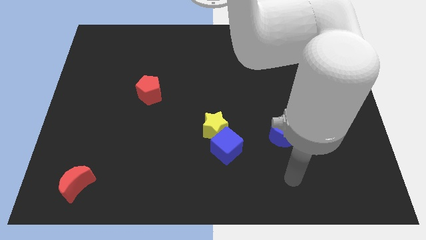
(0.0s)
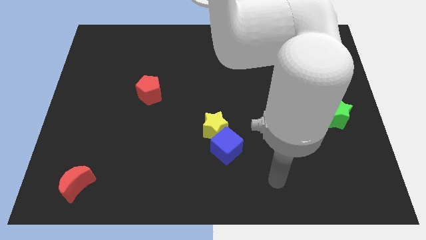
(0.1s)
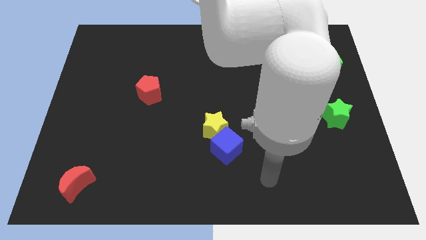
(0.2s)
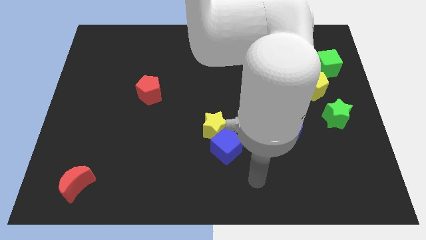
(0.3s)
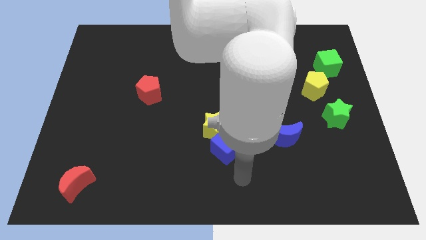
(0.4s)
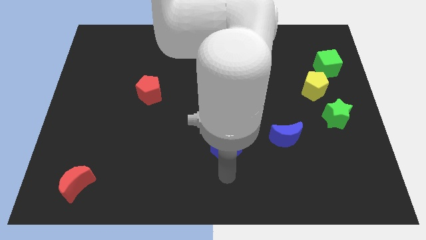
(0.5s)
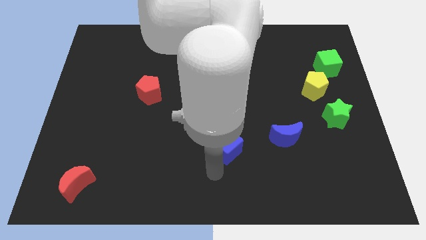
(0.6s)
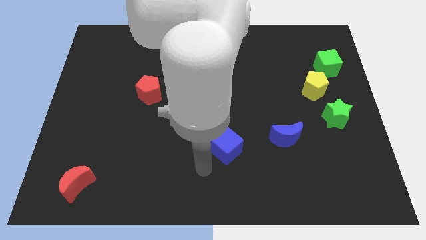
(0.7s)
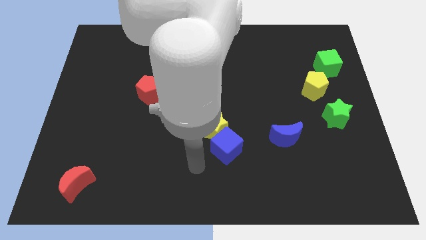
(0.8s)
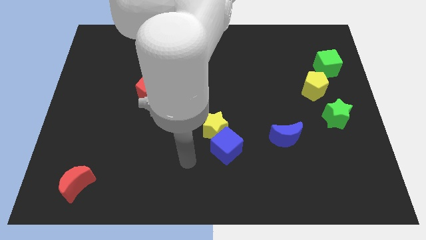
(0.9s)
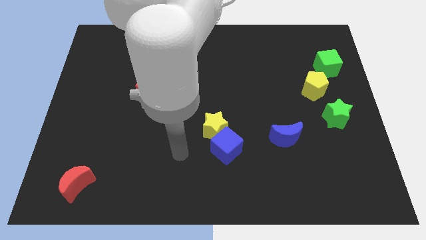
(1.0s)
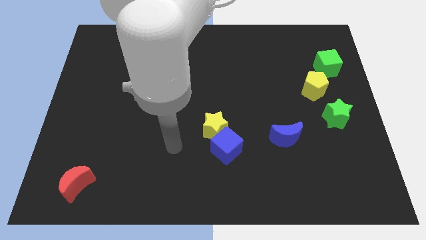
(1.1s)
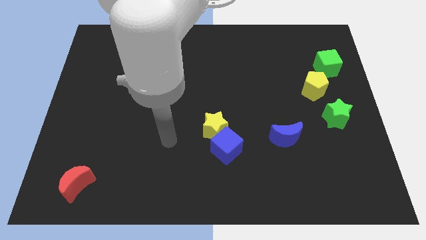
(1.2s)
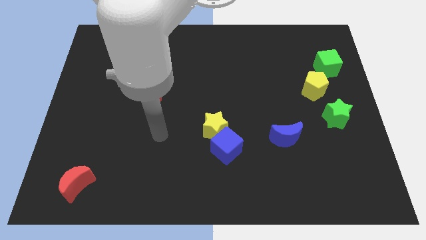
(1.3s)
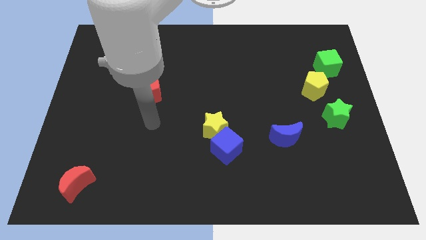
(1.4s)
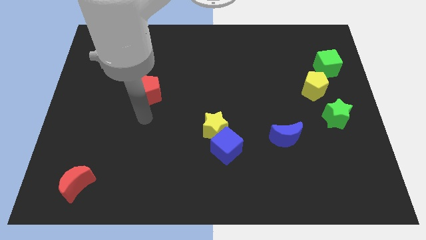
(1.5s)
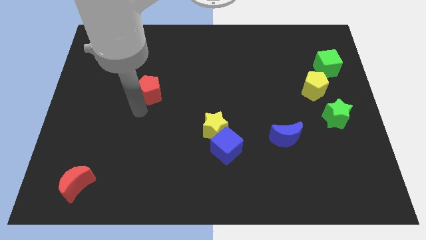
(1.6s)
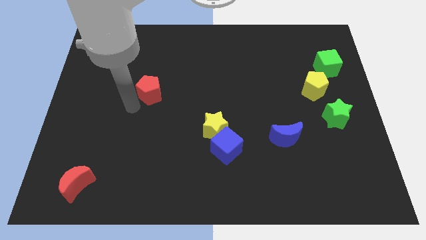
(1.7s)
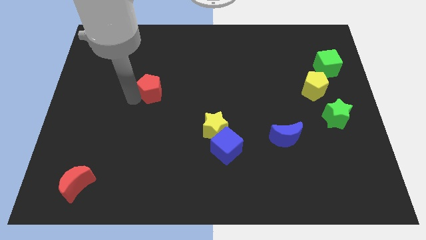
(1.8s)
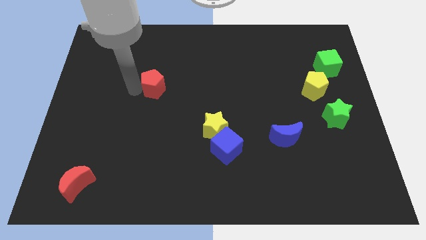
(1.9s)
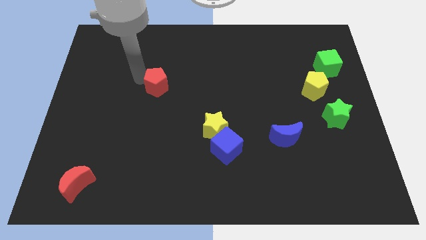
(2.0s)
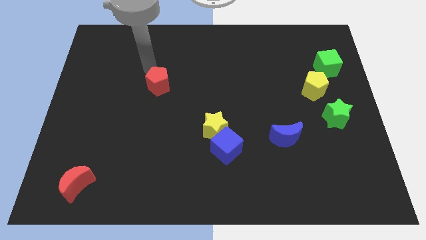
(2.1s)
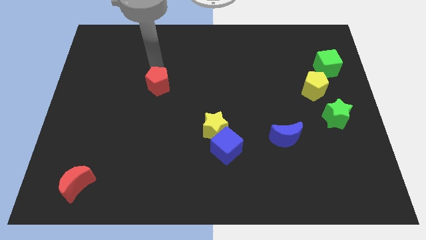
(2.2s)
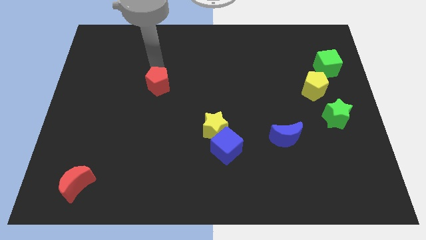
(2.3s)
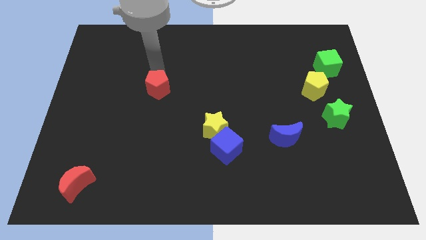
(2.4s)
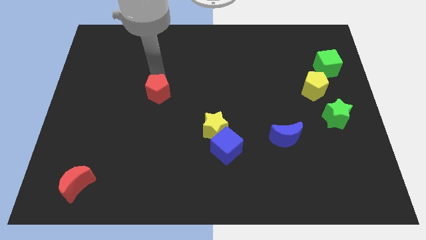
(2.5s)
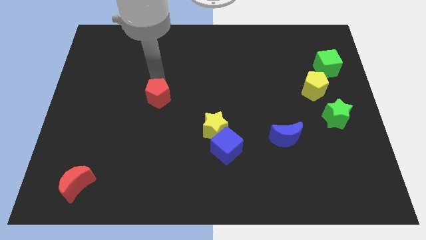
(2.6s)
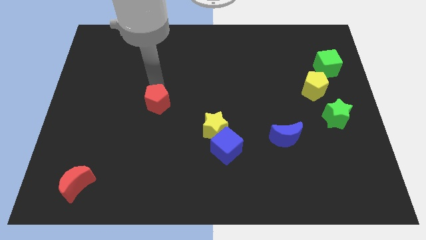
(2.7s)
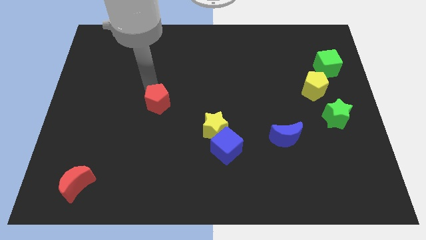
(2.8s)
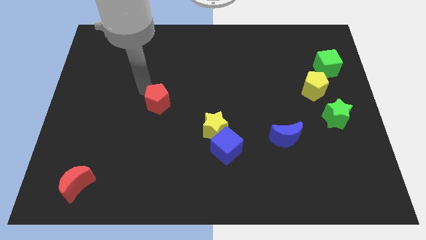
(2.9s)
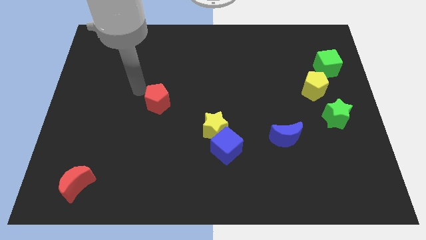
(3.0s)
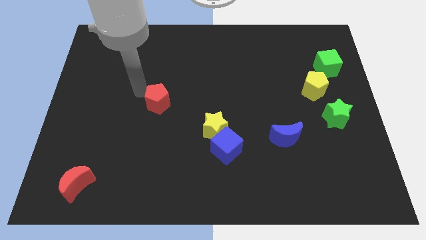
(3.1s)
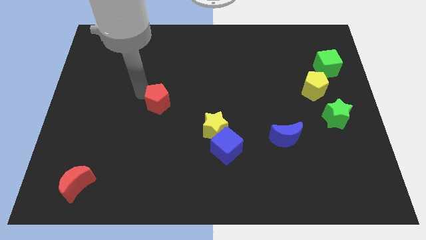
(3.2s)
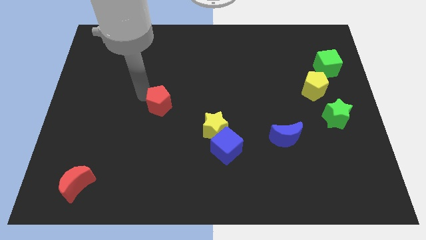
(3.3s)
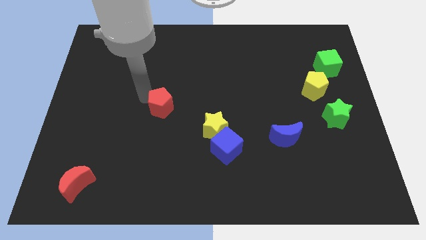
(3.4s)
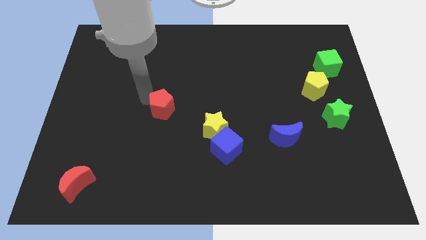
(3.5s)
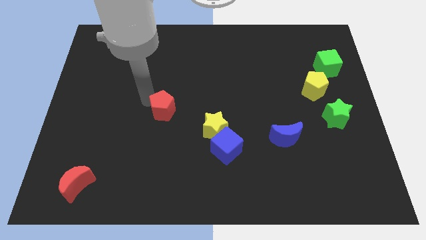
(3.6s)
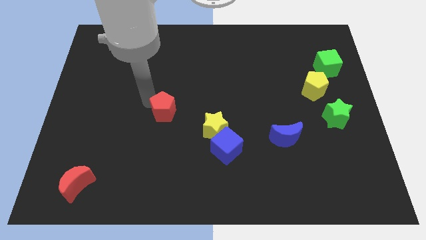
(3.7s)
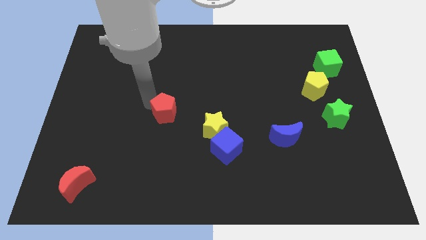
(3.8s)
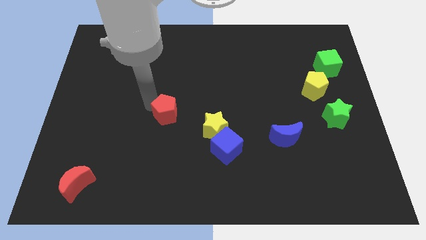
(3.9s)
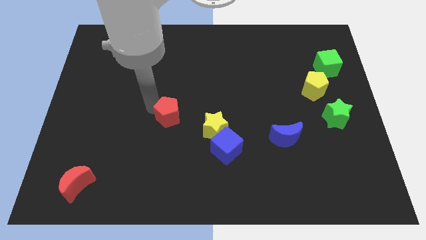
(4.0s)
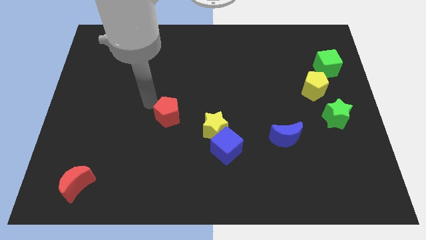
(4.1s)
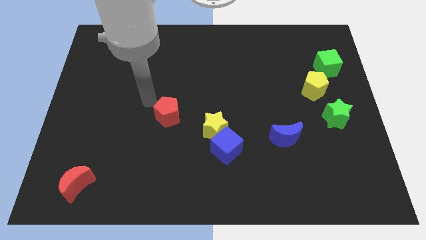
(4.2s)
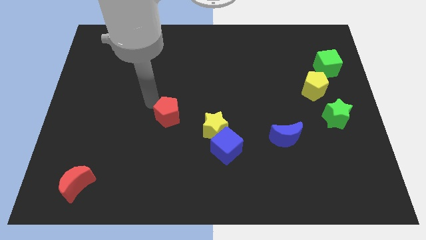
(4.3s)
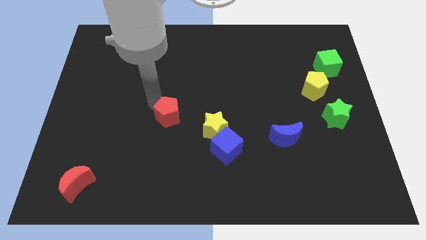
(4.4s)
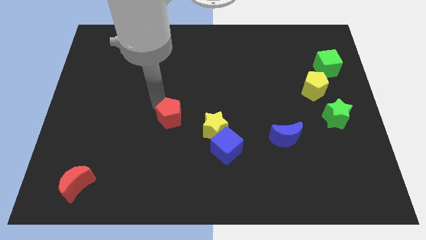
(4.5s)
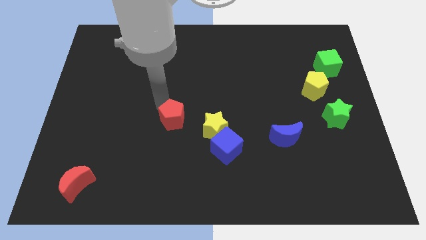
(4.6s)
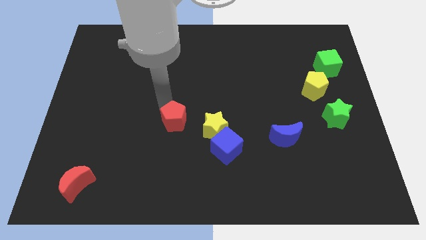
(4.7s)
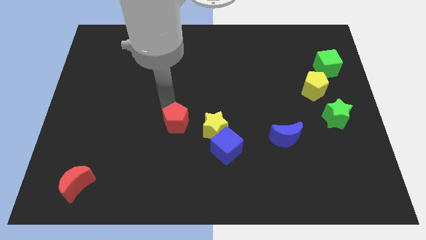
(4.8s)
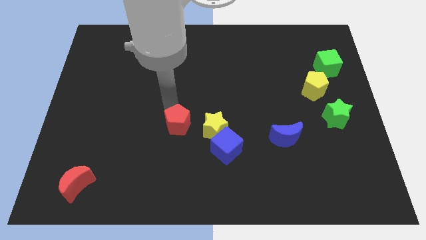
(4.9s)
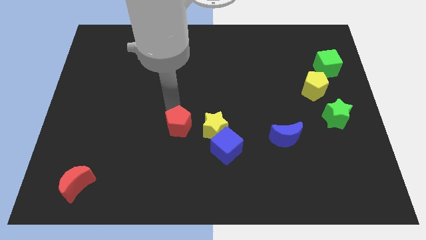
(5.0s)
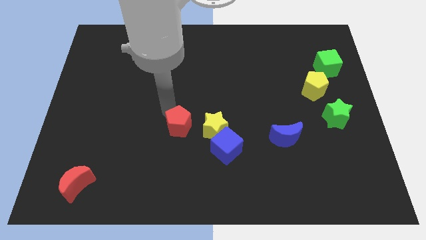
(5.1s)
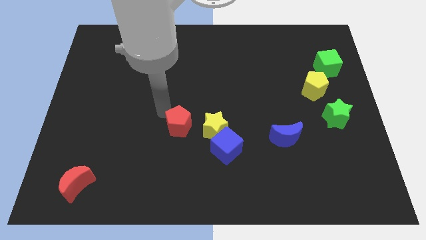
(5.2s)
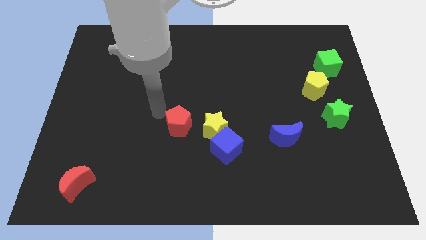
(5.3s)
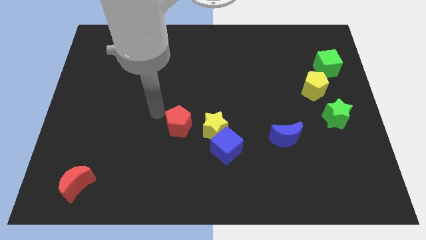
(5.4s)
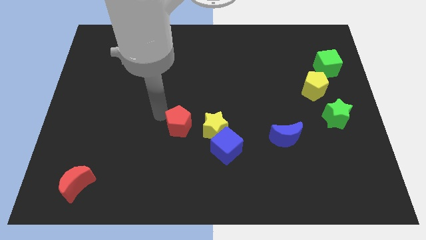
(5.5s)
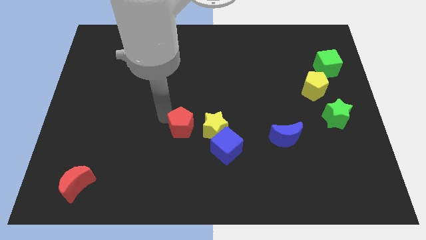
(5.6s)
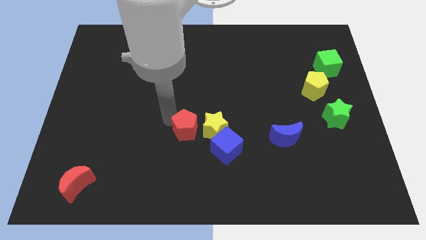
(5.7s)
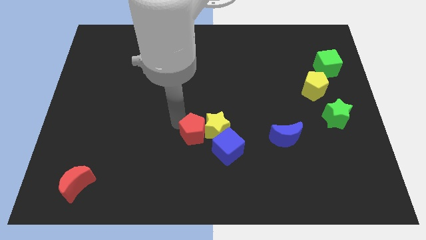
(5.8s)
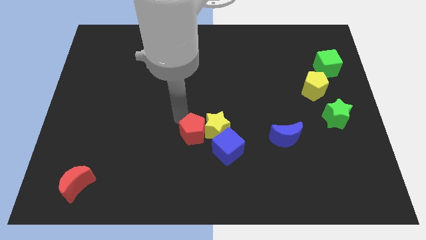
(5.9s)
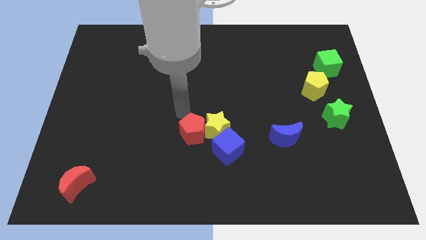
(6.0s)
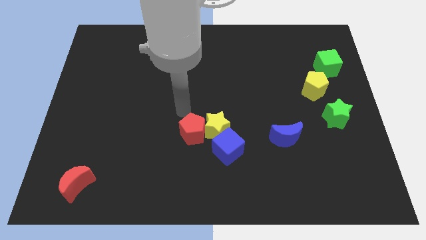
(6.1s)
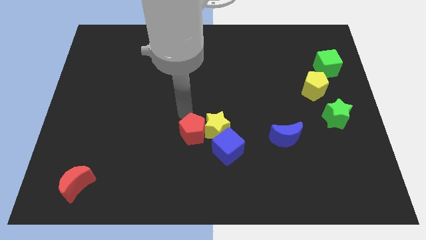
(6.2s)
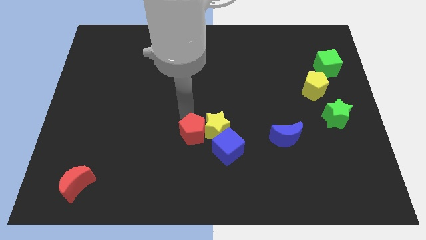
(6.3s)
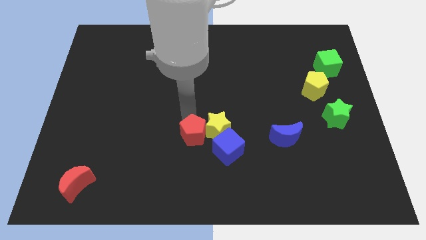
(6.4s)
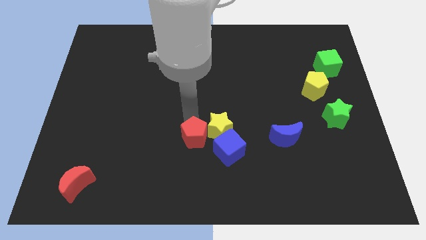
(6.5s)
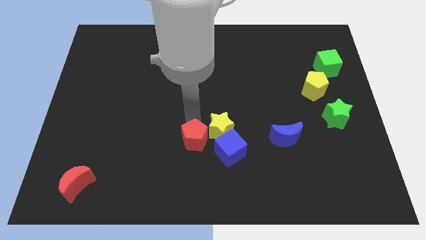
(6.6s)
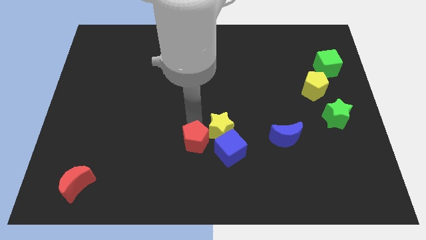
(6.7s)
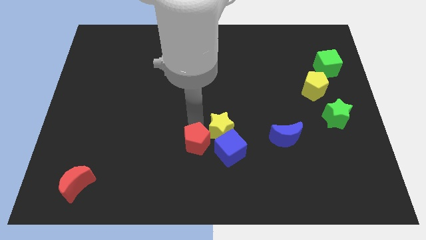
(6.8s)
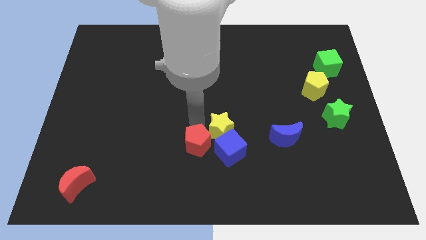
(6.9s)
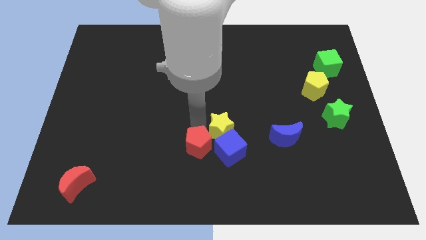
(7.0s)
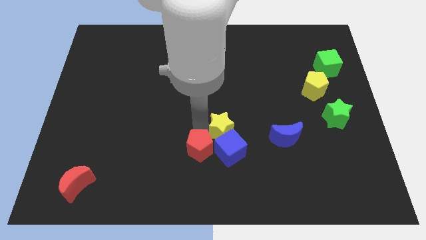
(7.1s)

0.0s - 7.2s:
move the red pentagon downwards and to the right diagonally

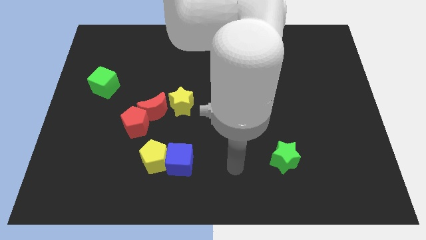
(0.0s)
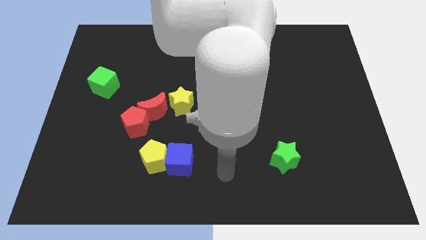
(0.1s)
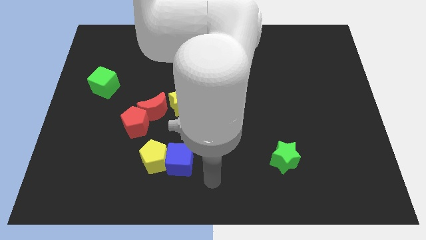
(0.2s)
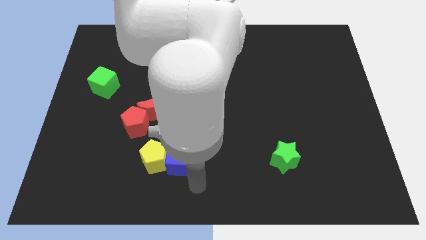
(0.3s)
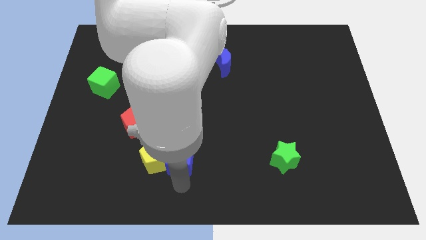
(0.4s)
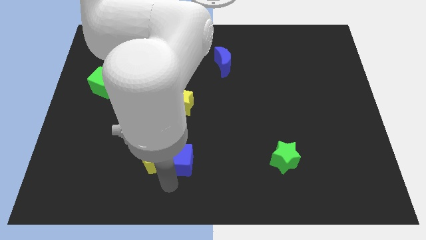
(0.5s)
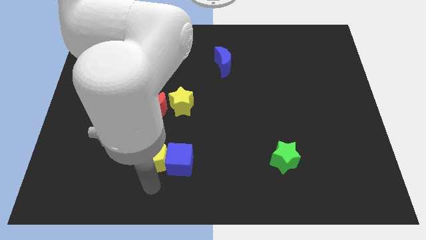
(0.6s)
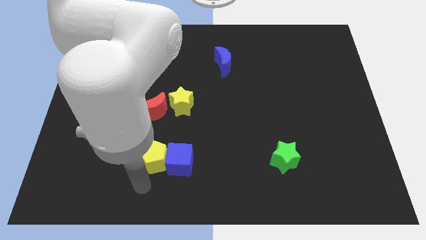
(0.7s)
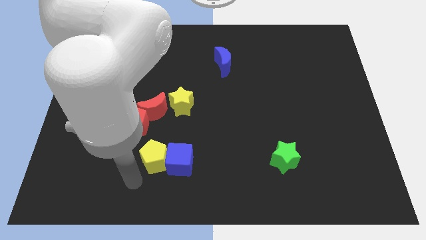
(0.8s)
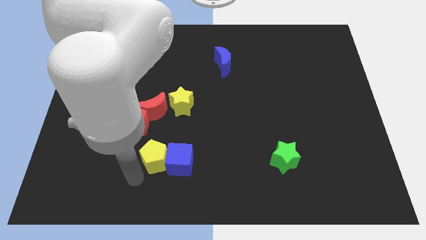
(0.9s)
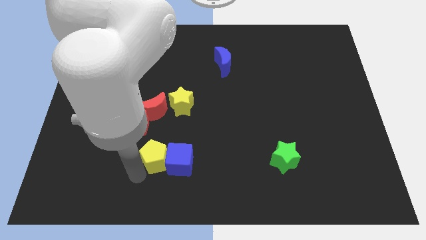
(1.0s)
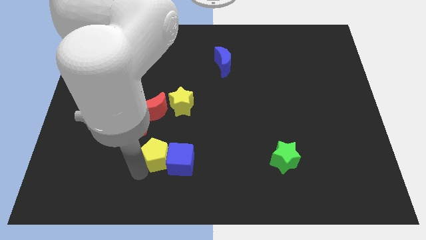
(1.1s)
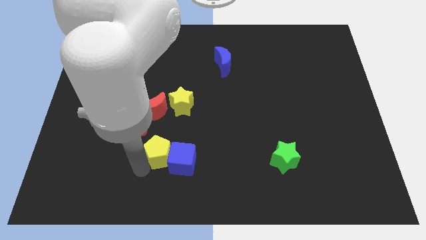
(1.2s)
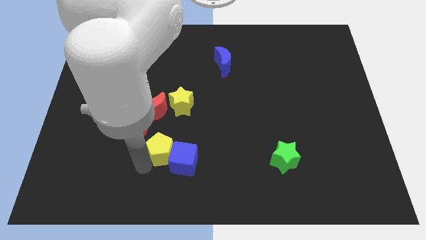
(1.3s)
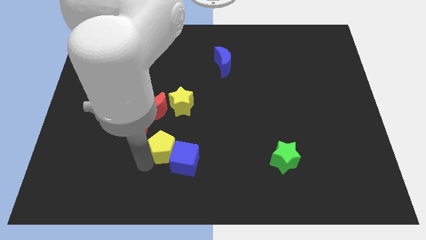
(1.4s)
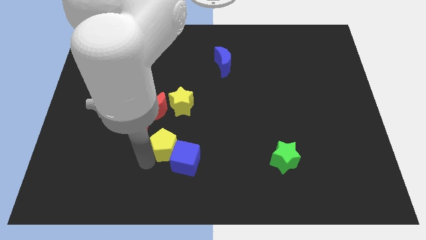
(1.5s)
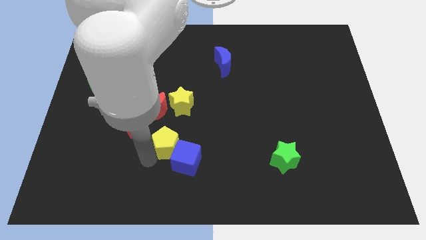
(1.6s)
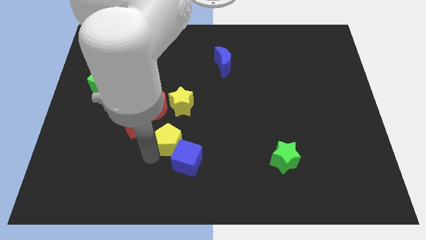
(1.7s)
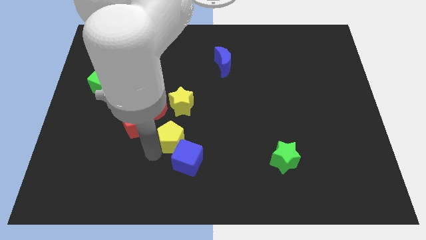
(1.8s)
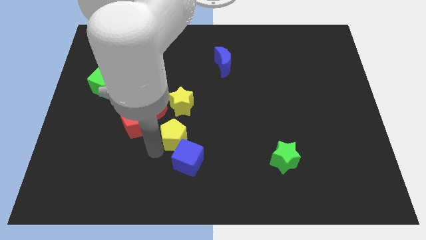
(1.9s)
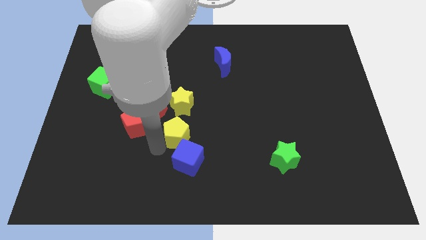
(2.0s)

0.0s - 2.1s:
slightly slide the yellow pentagon diagonally up and to the right
